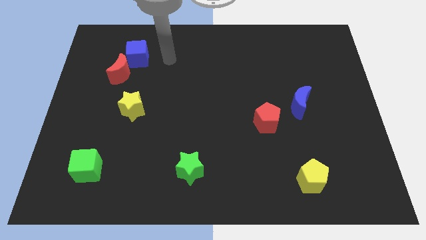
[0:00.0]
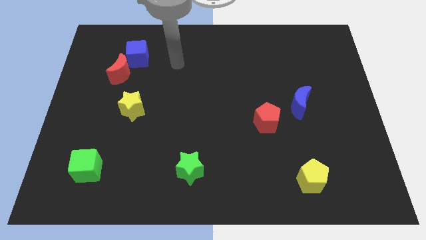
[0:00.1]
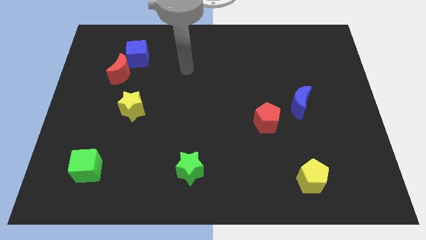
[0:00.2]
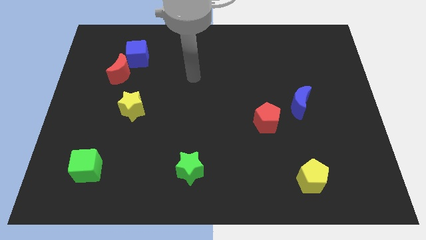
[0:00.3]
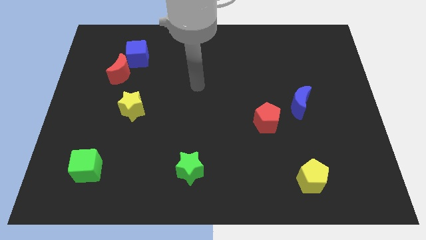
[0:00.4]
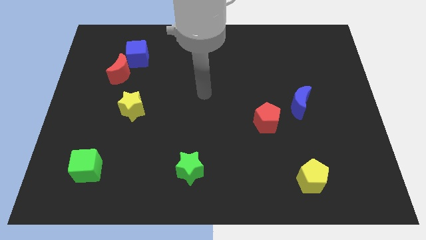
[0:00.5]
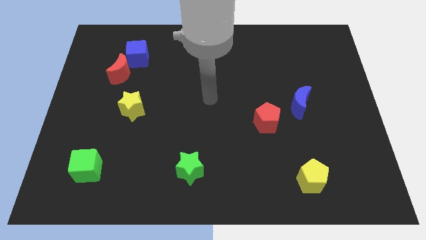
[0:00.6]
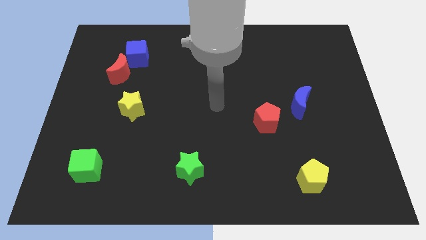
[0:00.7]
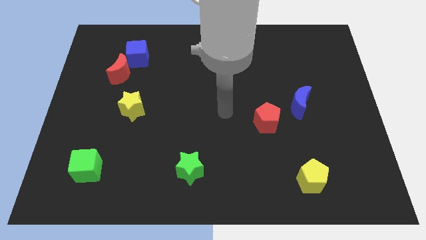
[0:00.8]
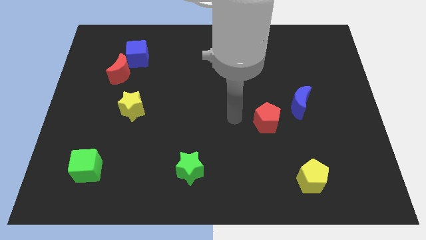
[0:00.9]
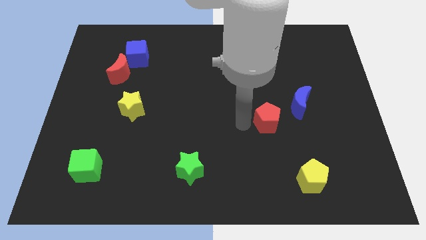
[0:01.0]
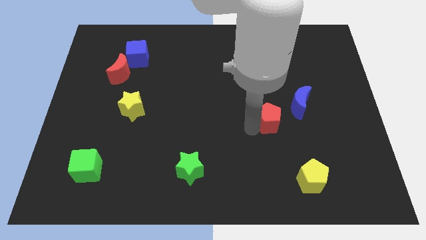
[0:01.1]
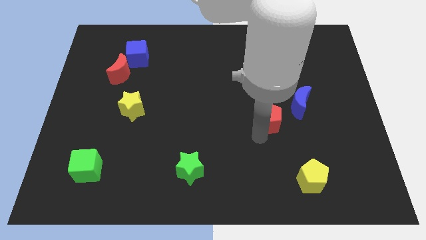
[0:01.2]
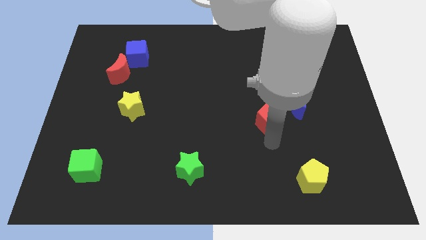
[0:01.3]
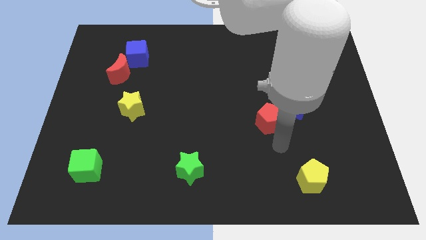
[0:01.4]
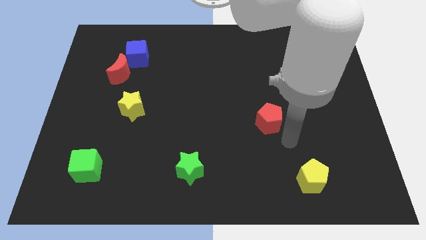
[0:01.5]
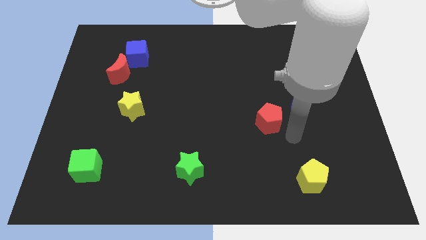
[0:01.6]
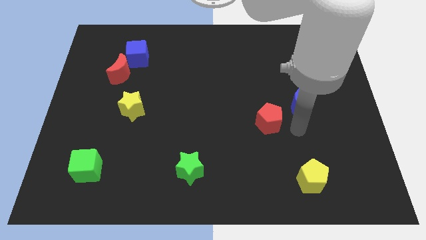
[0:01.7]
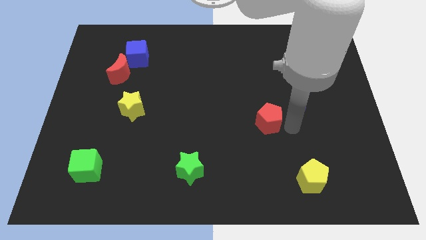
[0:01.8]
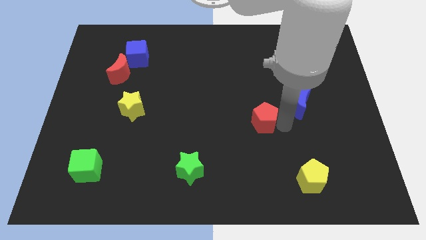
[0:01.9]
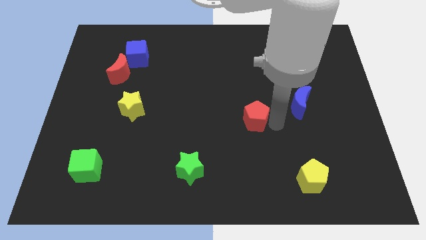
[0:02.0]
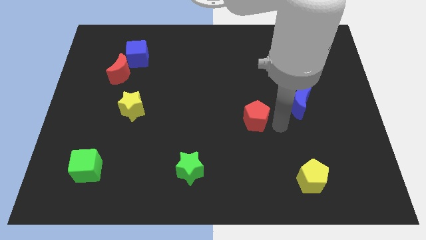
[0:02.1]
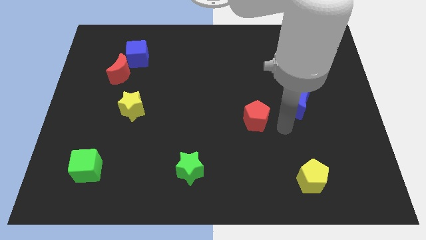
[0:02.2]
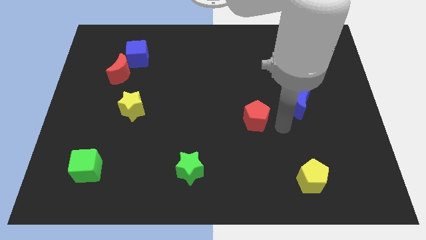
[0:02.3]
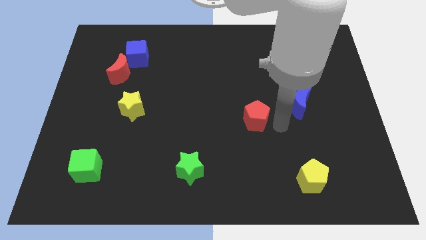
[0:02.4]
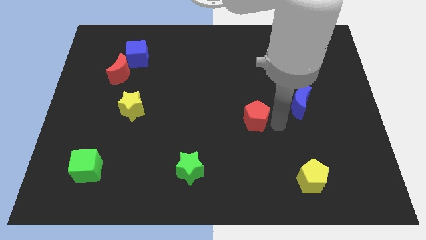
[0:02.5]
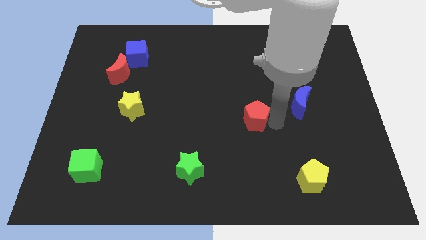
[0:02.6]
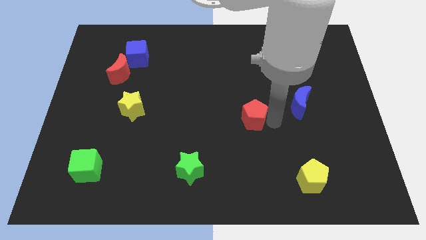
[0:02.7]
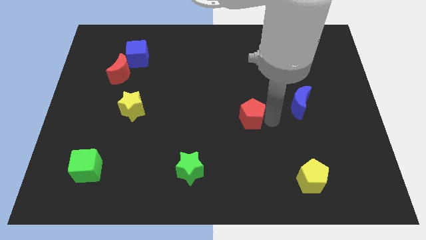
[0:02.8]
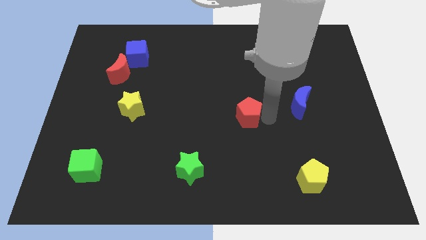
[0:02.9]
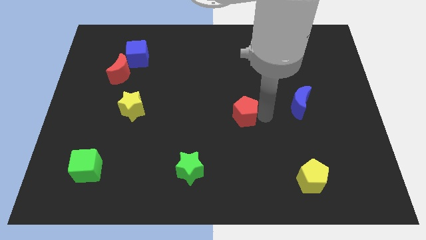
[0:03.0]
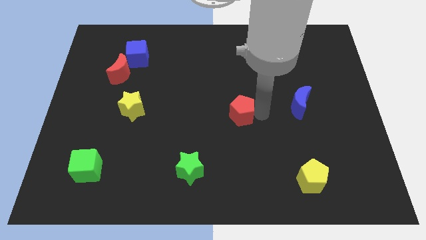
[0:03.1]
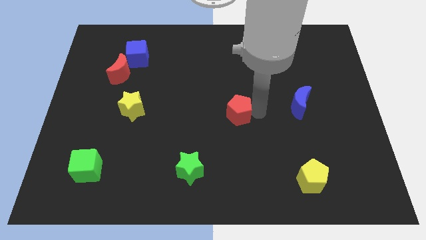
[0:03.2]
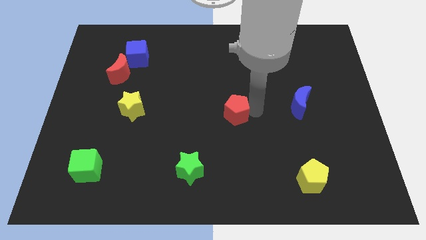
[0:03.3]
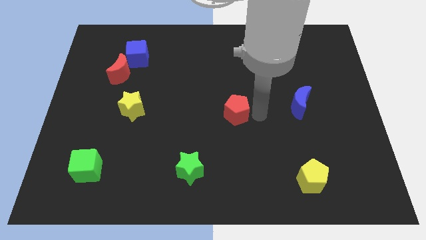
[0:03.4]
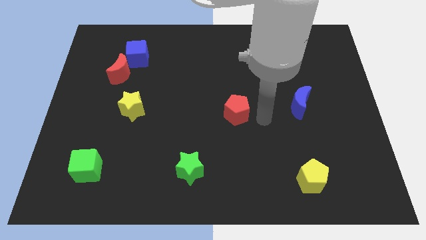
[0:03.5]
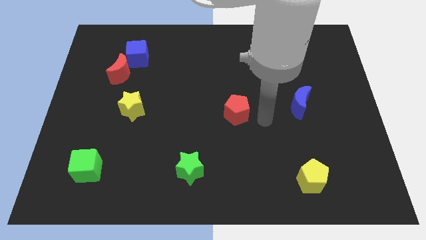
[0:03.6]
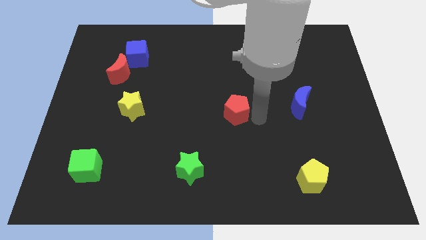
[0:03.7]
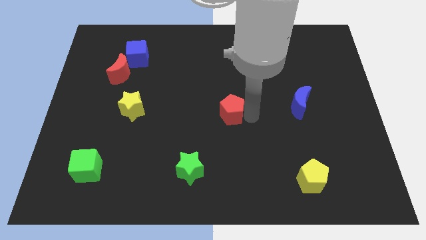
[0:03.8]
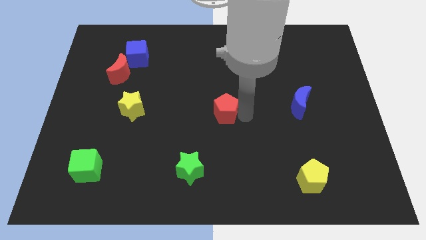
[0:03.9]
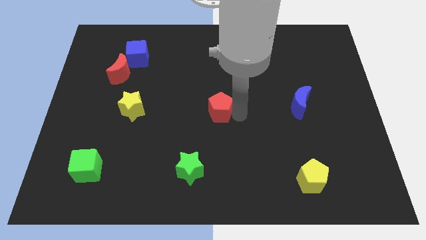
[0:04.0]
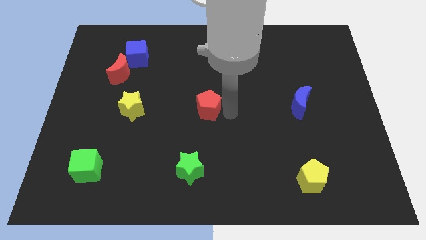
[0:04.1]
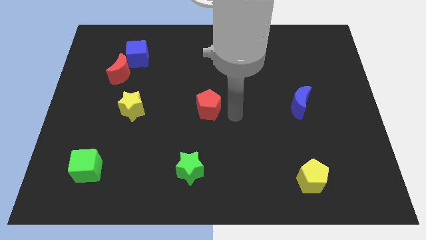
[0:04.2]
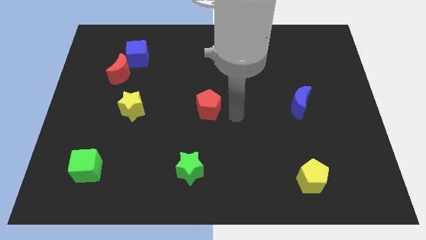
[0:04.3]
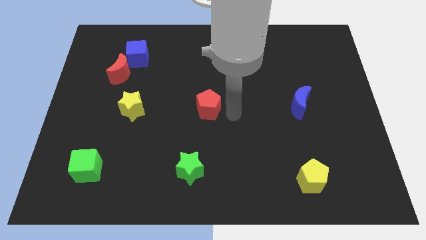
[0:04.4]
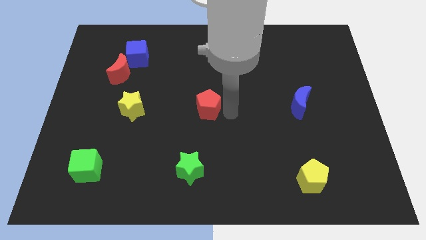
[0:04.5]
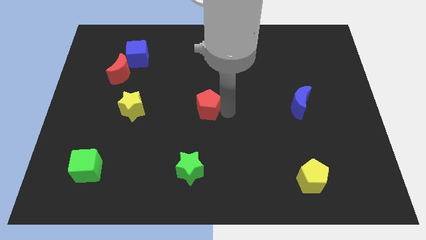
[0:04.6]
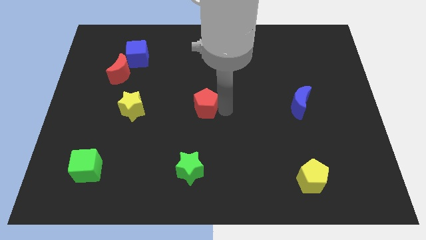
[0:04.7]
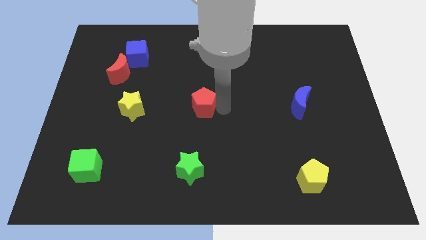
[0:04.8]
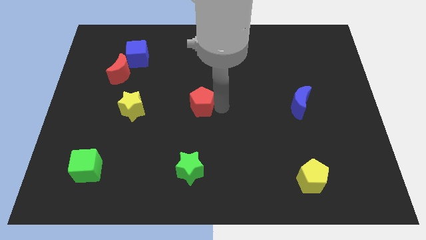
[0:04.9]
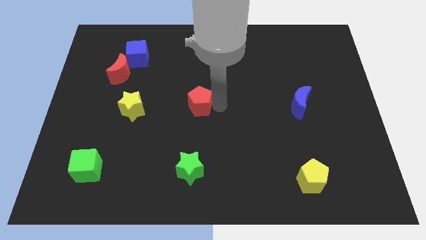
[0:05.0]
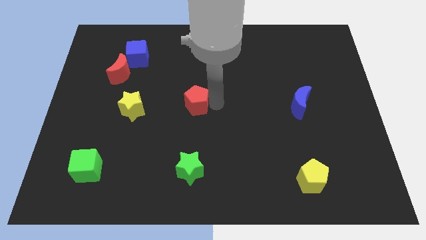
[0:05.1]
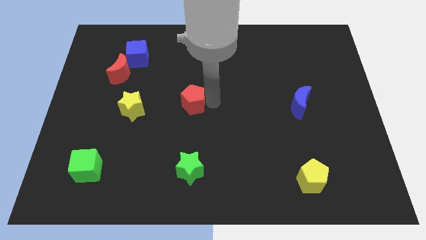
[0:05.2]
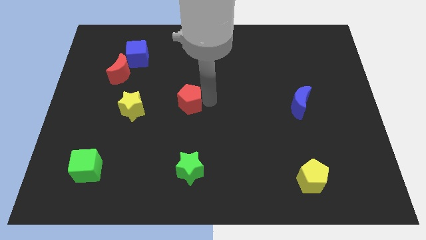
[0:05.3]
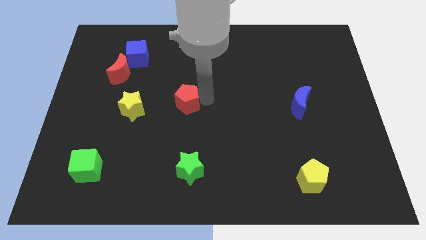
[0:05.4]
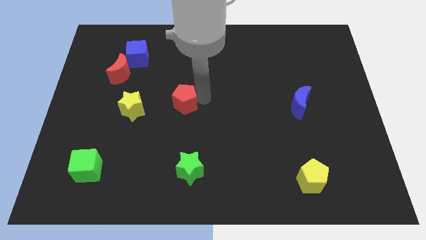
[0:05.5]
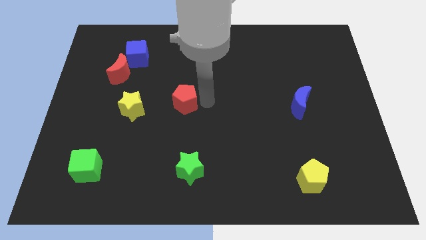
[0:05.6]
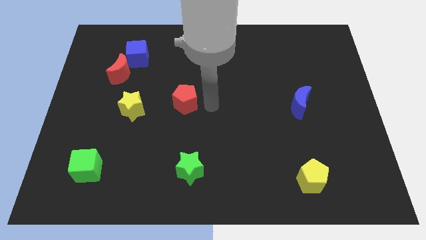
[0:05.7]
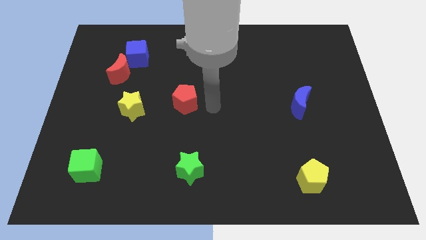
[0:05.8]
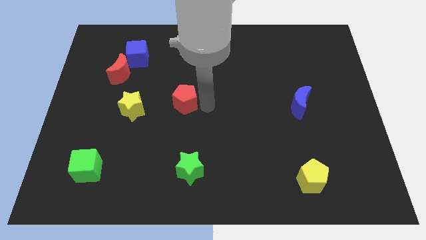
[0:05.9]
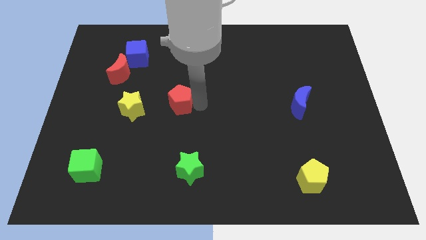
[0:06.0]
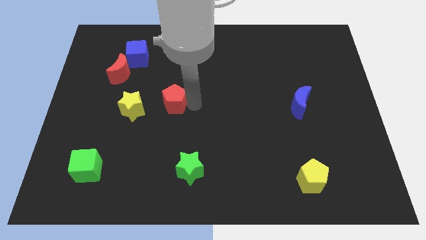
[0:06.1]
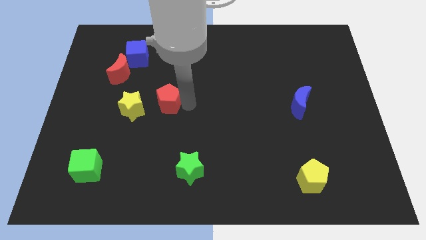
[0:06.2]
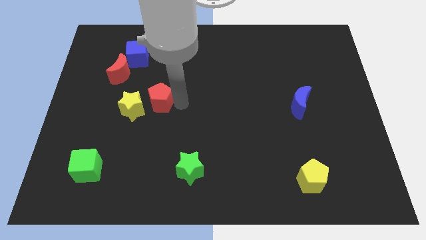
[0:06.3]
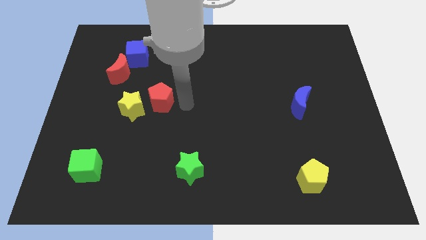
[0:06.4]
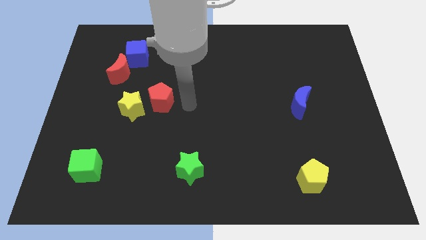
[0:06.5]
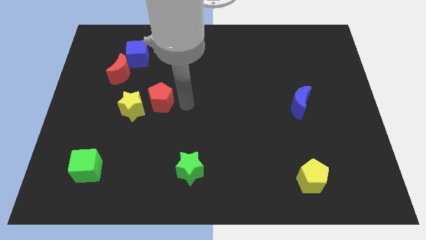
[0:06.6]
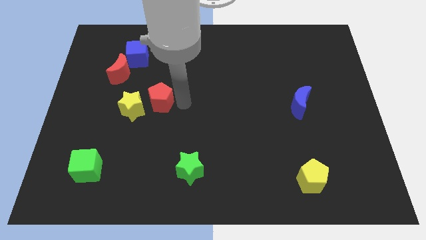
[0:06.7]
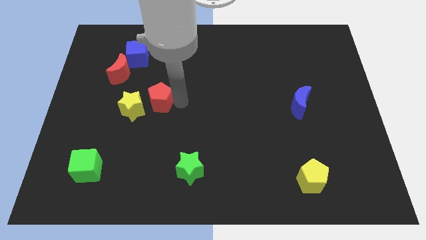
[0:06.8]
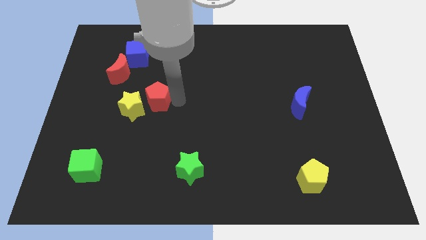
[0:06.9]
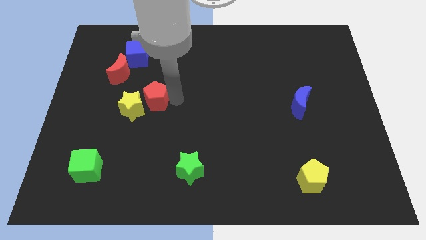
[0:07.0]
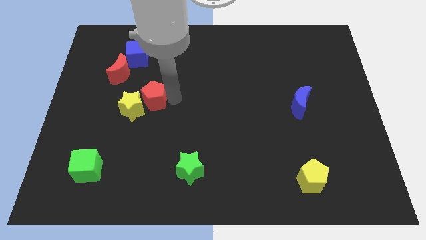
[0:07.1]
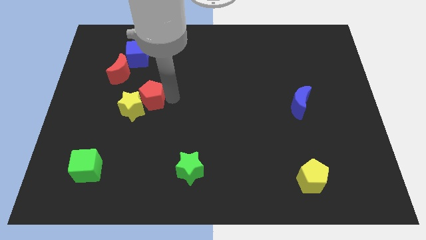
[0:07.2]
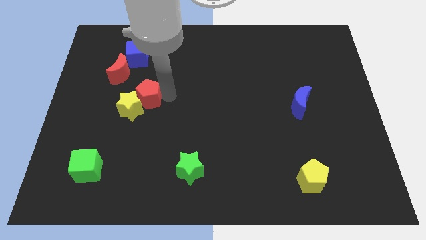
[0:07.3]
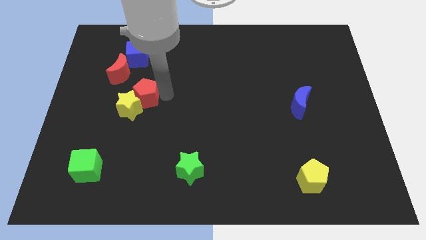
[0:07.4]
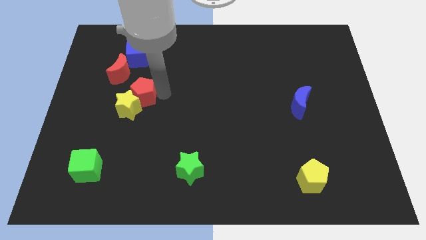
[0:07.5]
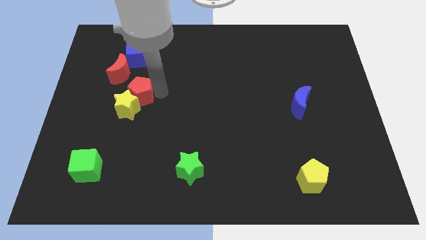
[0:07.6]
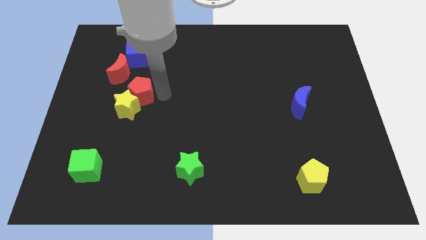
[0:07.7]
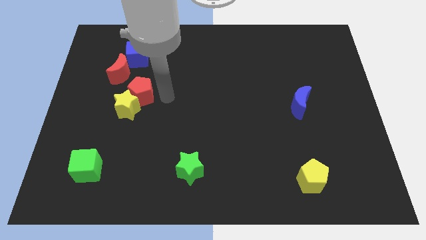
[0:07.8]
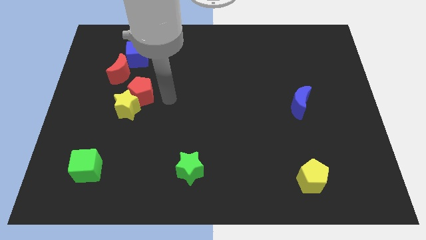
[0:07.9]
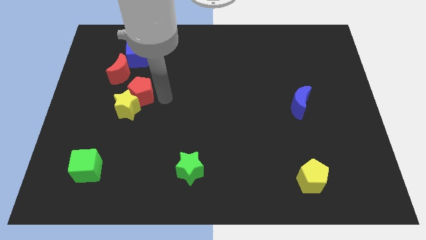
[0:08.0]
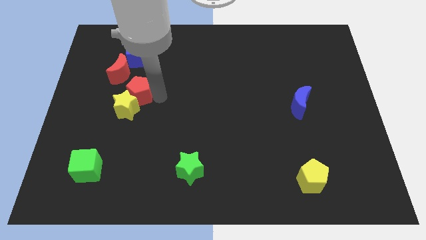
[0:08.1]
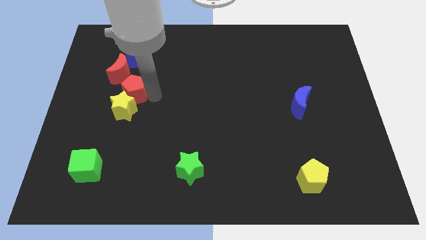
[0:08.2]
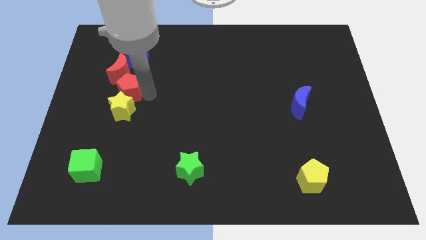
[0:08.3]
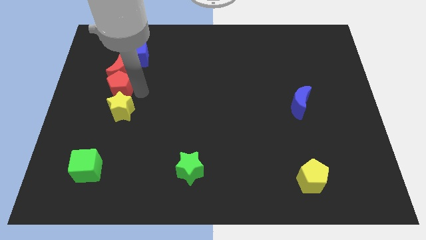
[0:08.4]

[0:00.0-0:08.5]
slide the red pentagon diagonally down and to the left of the red moon
